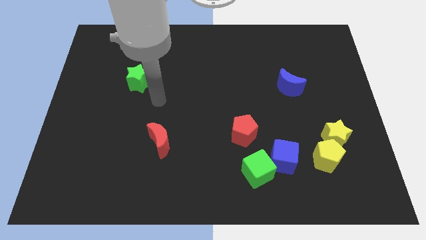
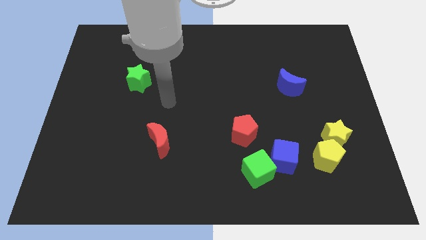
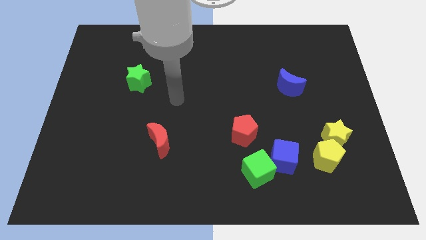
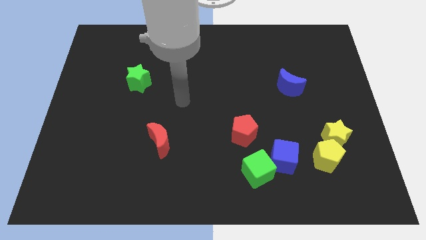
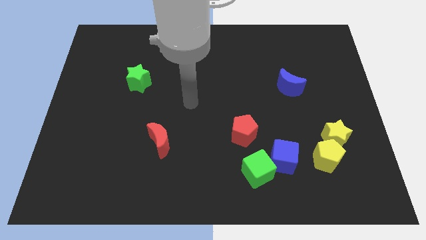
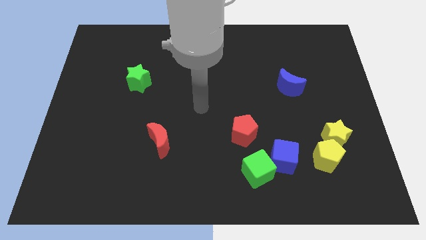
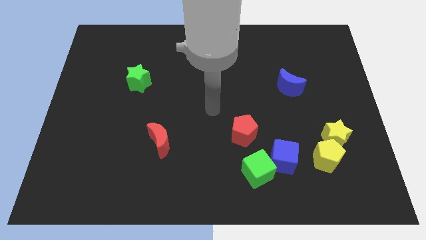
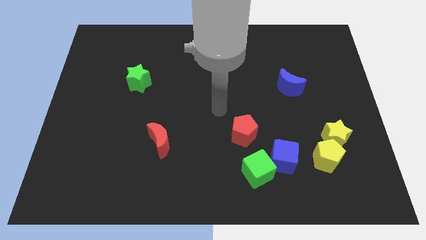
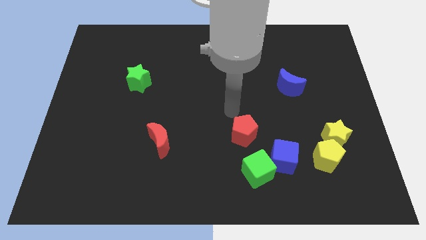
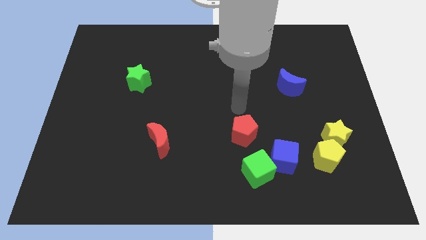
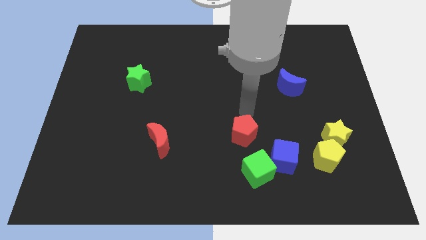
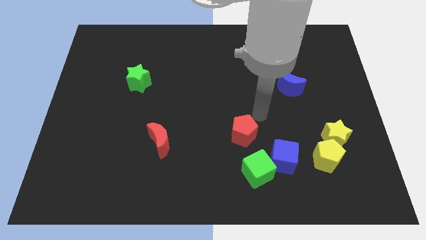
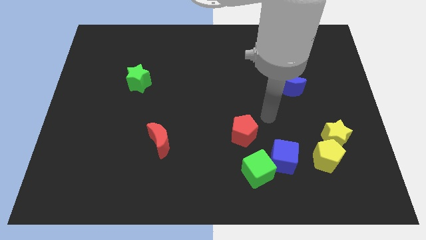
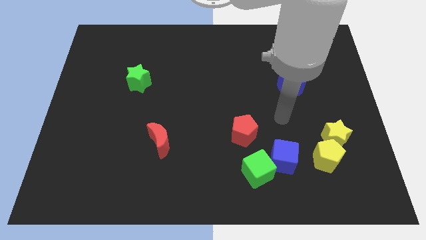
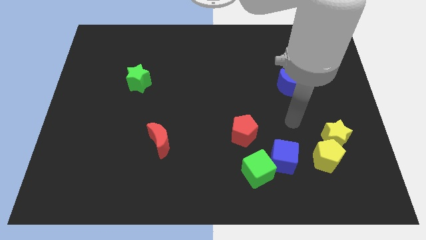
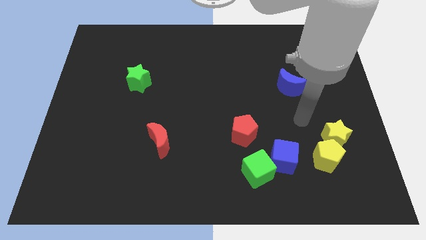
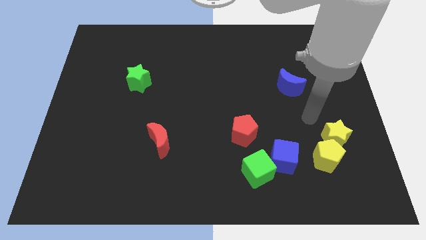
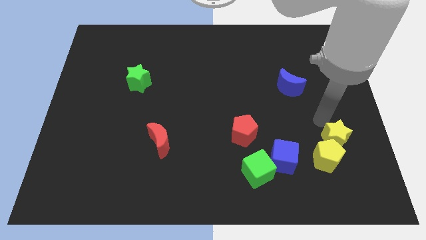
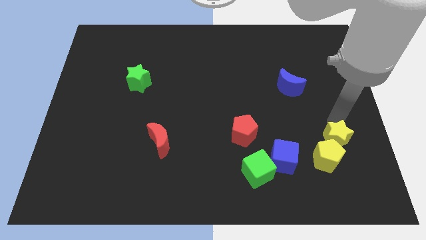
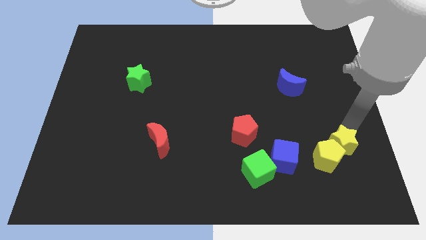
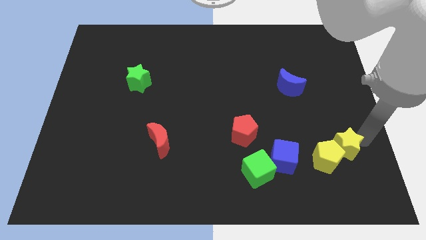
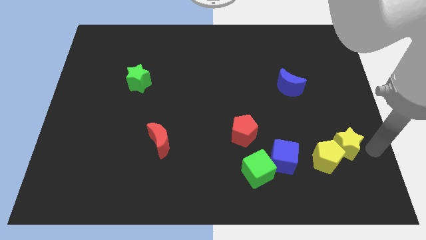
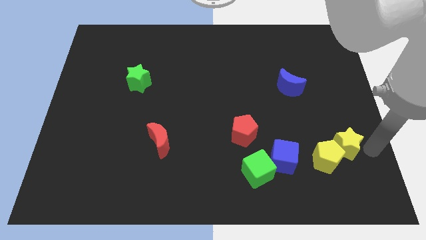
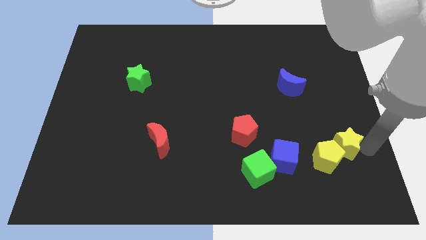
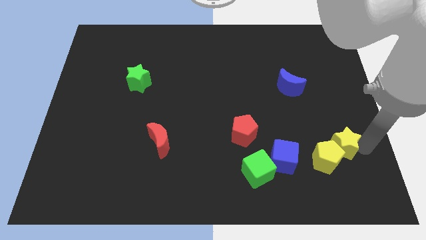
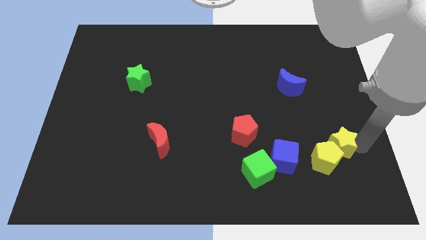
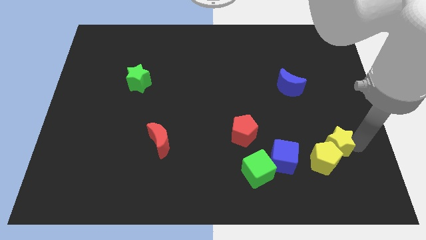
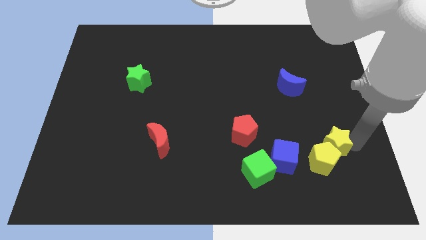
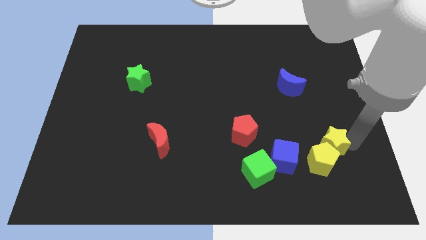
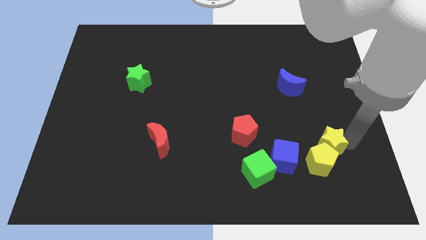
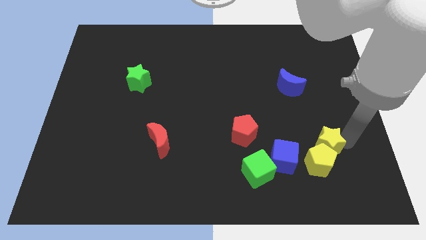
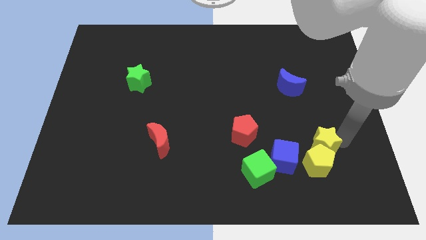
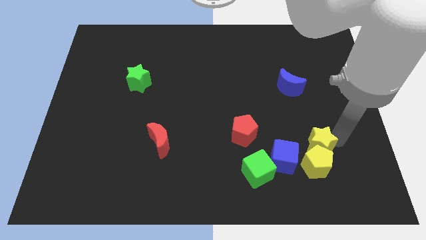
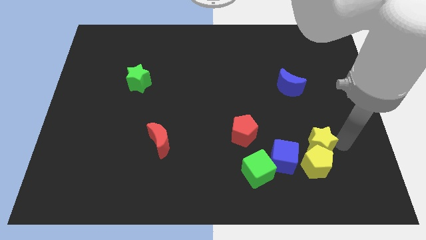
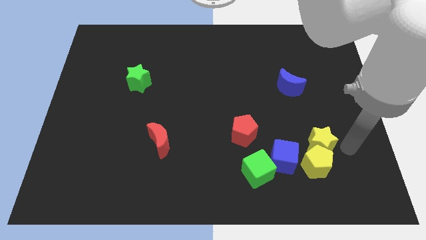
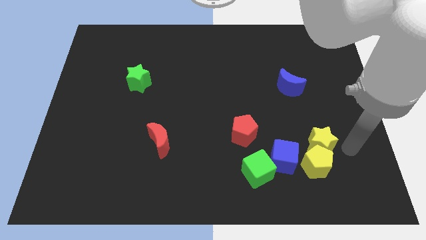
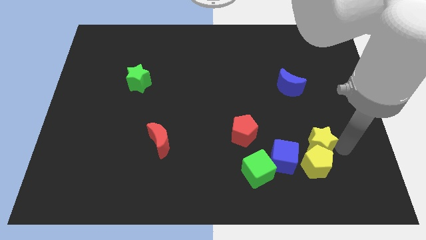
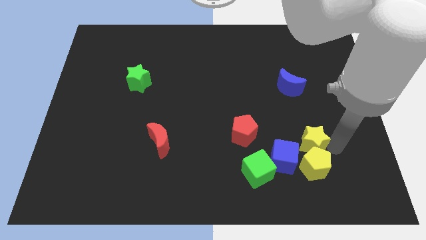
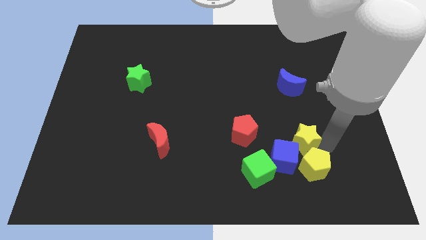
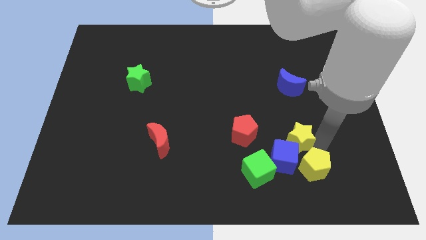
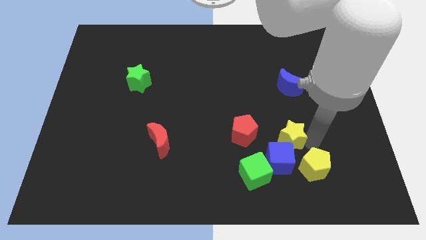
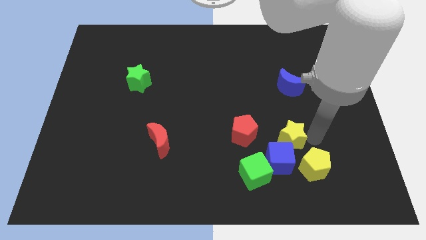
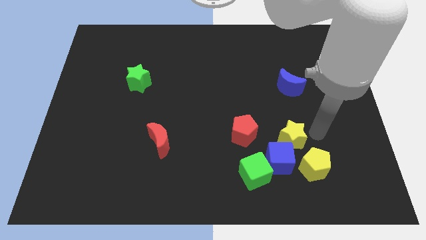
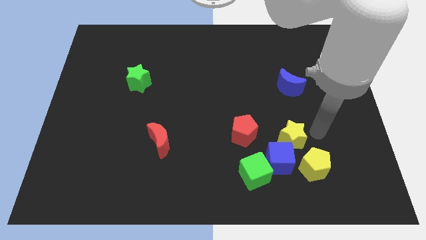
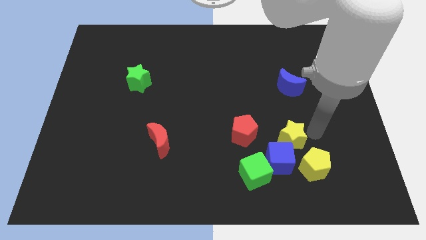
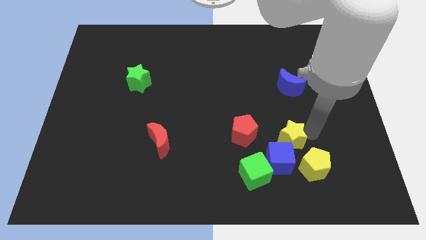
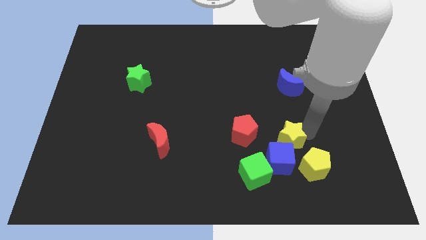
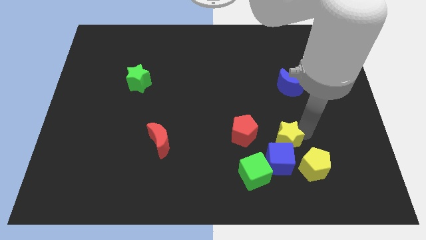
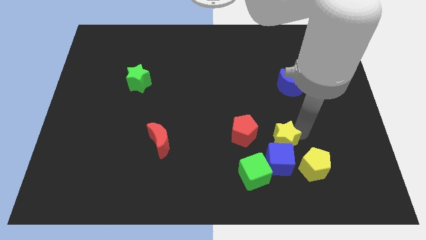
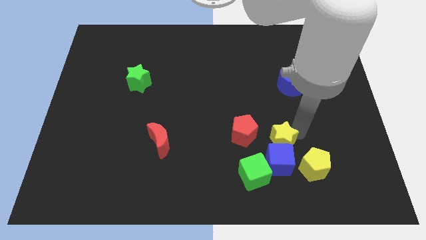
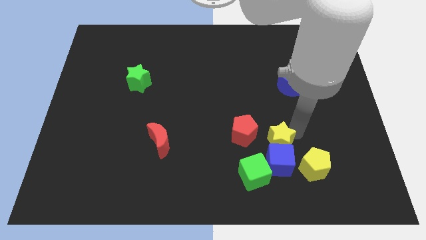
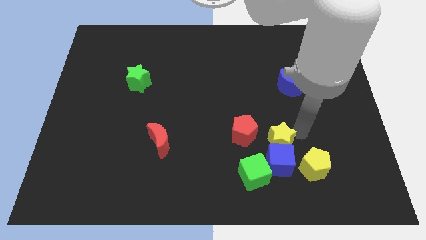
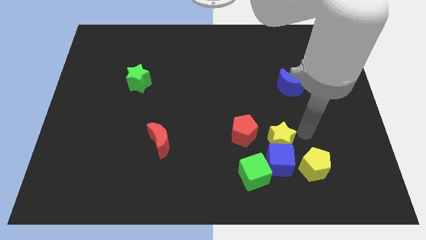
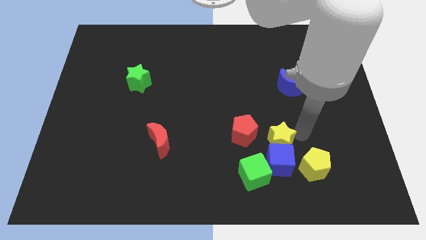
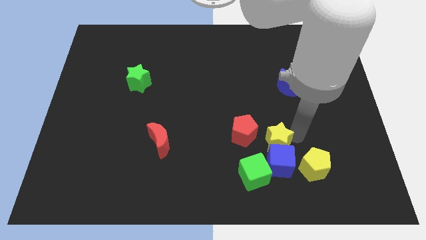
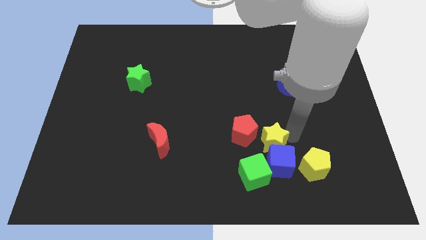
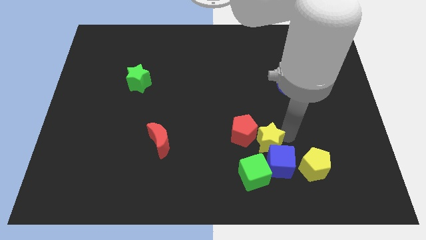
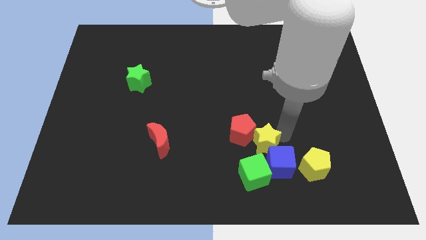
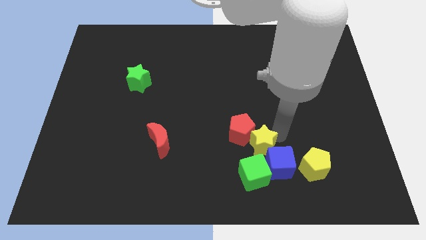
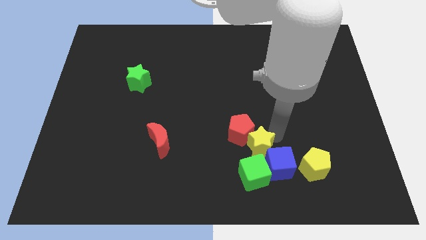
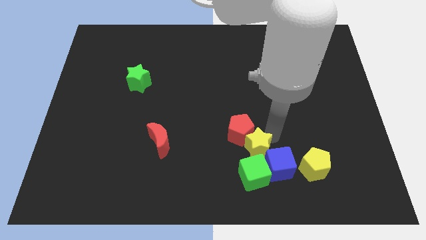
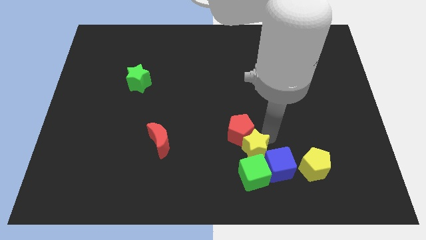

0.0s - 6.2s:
move the yellow star next to the green cube
